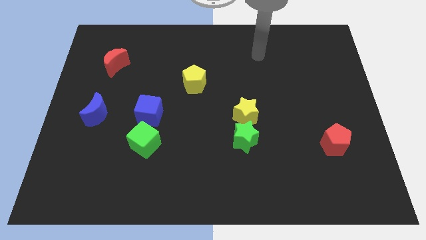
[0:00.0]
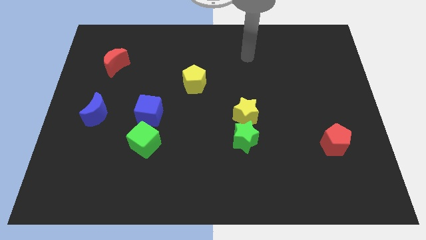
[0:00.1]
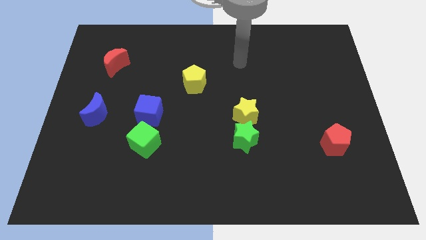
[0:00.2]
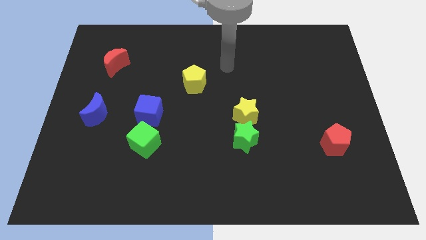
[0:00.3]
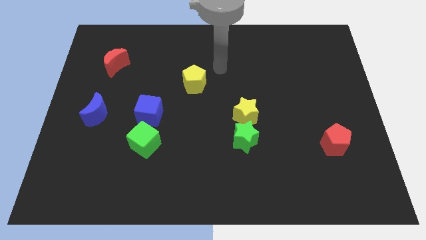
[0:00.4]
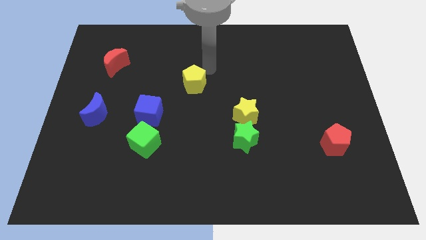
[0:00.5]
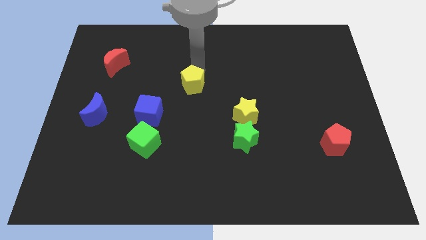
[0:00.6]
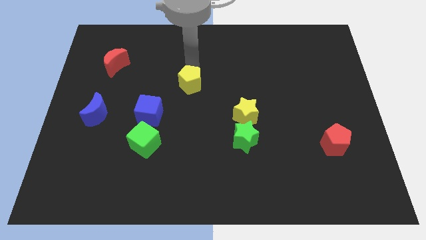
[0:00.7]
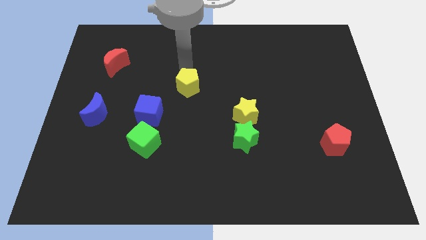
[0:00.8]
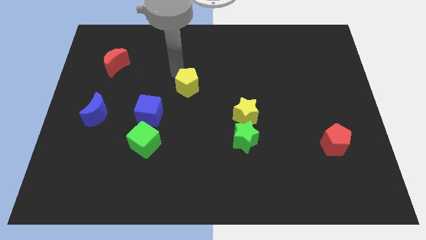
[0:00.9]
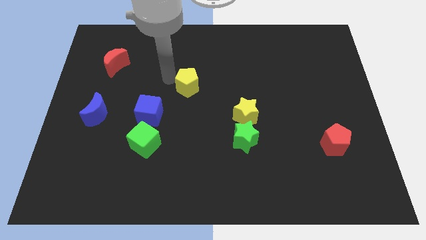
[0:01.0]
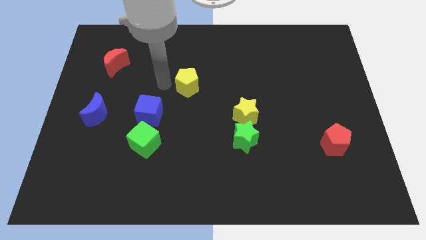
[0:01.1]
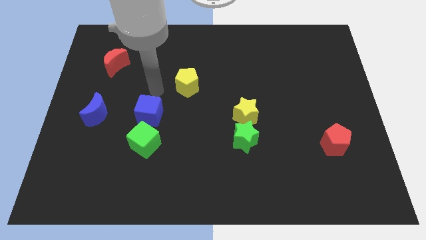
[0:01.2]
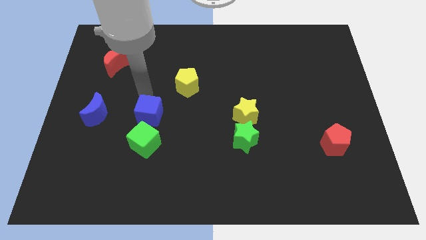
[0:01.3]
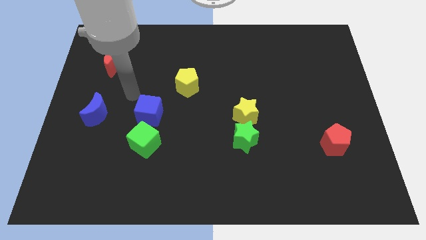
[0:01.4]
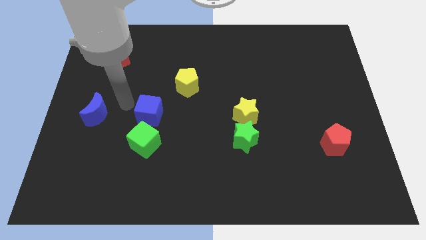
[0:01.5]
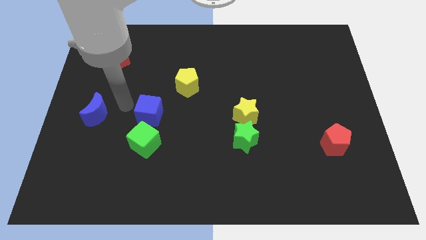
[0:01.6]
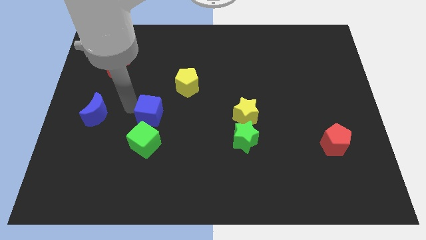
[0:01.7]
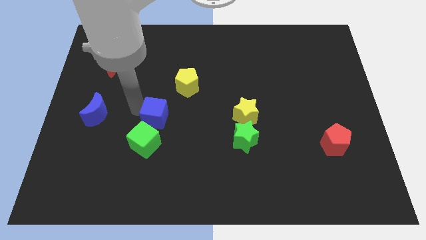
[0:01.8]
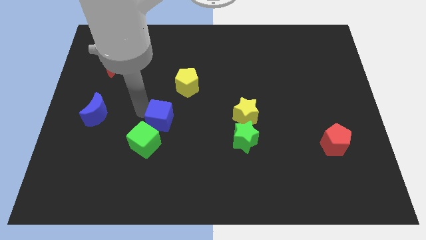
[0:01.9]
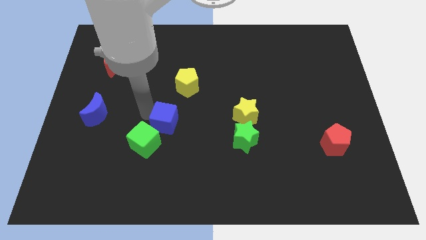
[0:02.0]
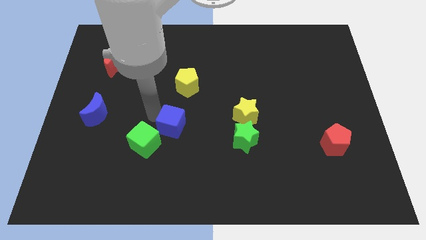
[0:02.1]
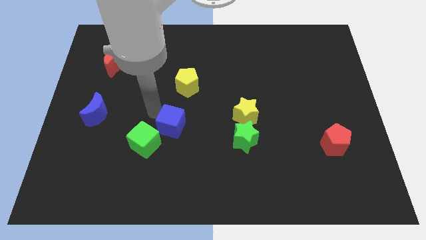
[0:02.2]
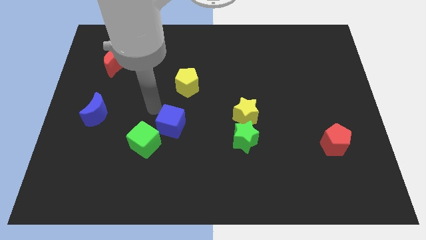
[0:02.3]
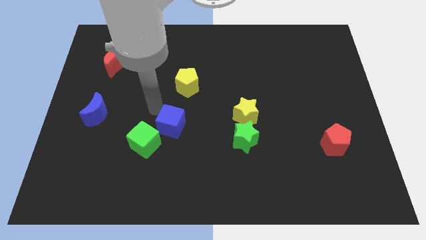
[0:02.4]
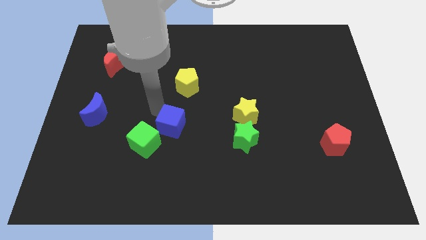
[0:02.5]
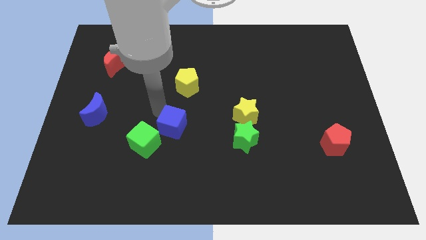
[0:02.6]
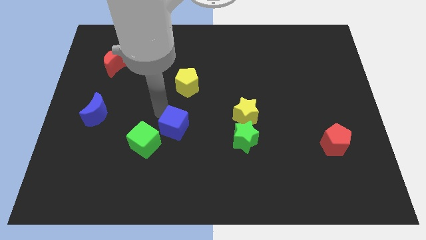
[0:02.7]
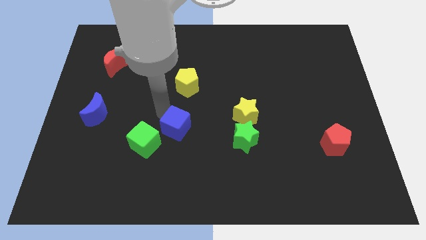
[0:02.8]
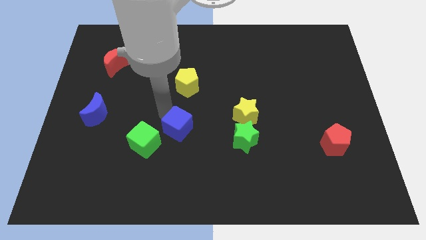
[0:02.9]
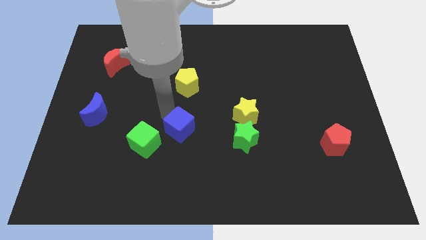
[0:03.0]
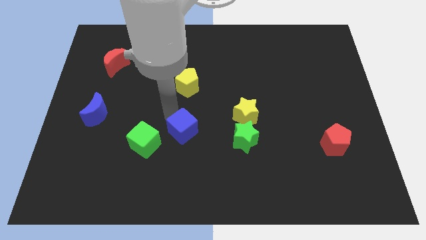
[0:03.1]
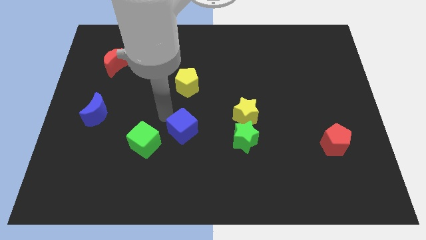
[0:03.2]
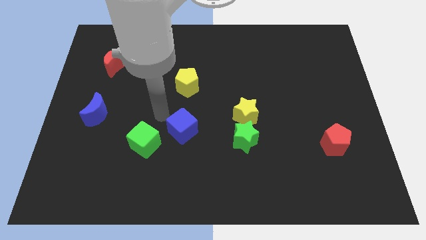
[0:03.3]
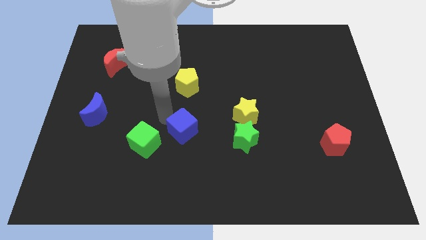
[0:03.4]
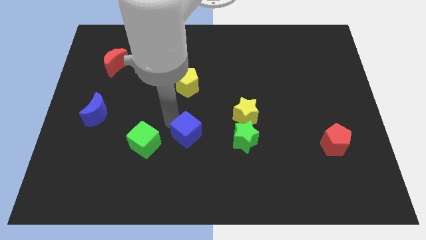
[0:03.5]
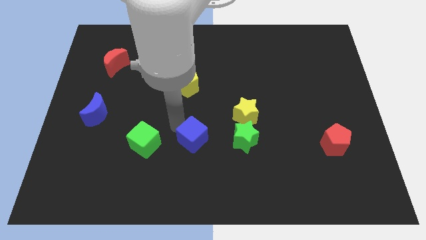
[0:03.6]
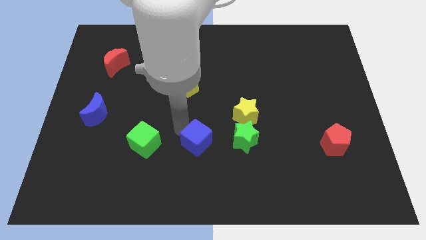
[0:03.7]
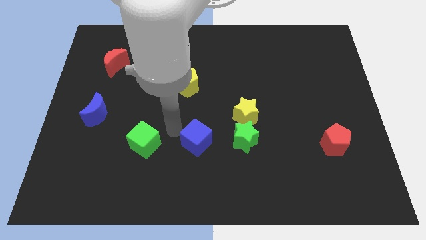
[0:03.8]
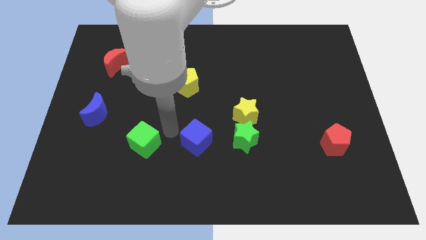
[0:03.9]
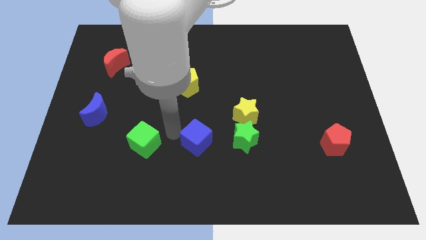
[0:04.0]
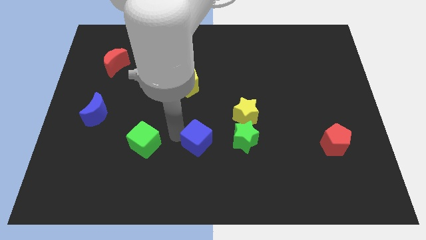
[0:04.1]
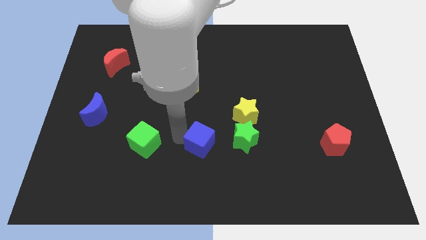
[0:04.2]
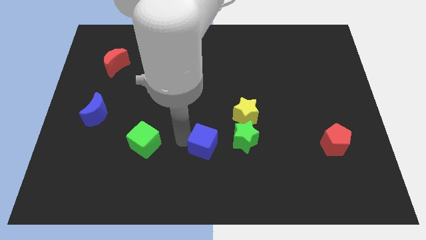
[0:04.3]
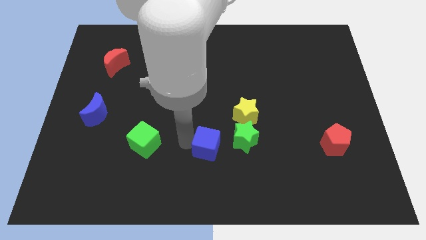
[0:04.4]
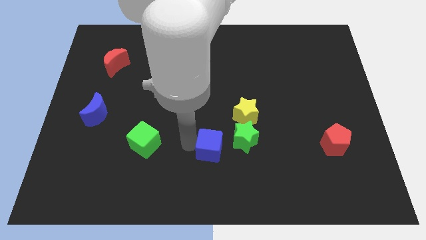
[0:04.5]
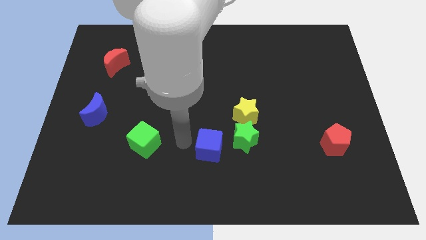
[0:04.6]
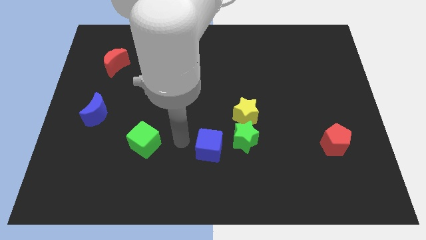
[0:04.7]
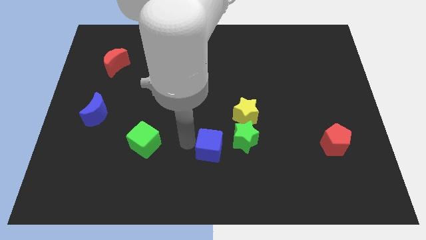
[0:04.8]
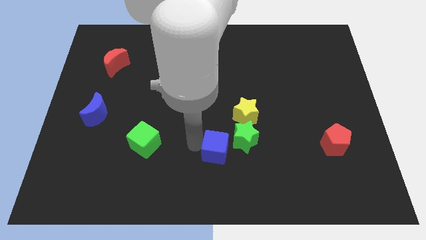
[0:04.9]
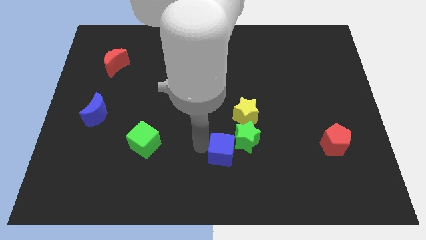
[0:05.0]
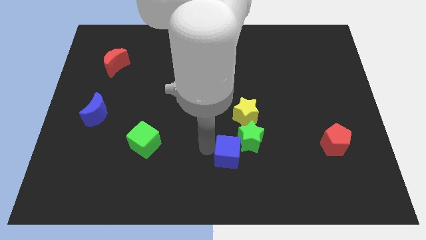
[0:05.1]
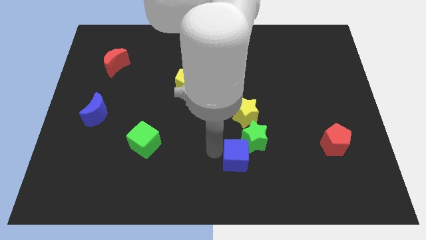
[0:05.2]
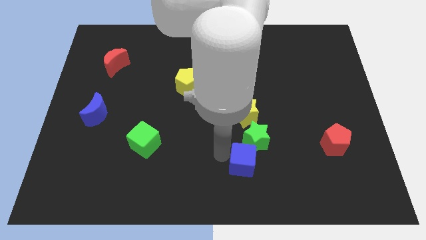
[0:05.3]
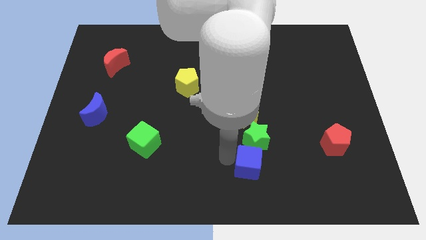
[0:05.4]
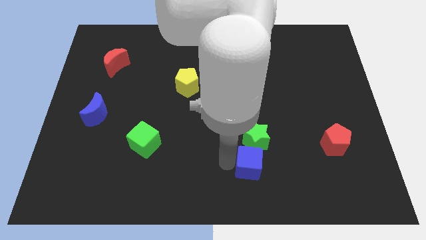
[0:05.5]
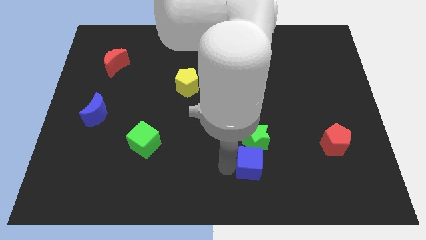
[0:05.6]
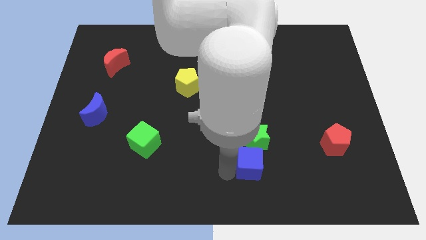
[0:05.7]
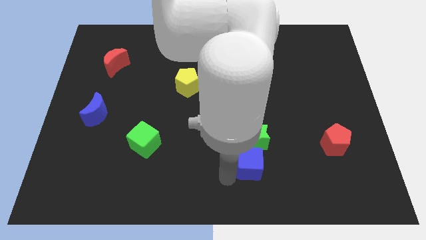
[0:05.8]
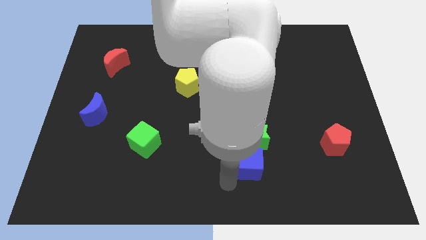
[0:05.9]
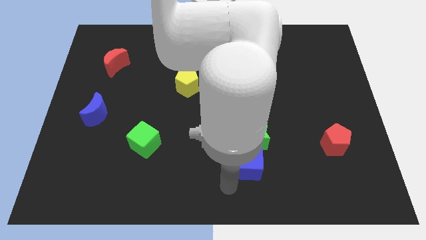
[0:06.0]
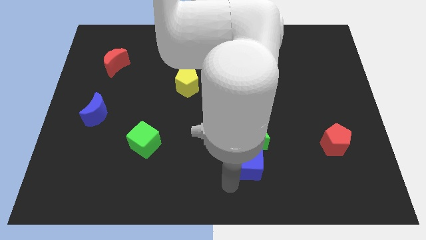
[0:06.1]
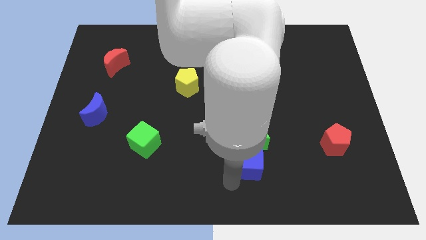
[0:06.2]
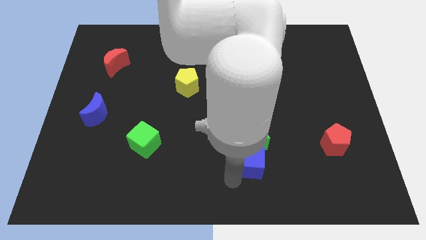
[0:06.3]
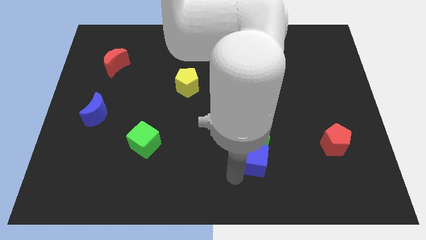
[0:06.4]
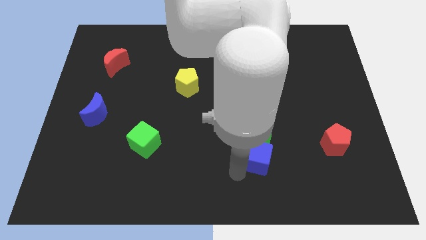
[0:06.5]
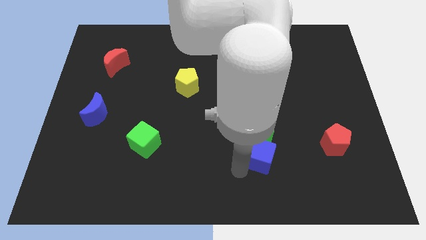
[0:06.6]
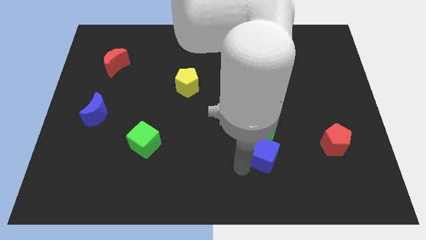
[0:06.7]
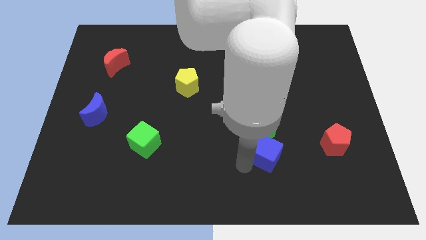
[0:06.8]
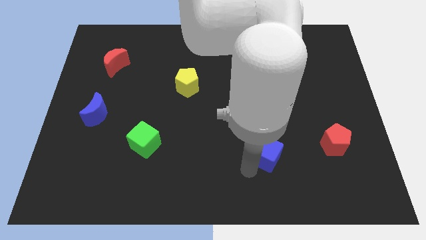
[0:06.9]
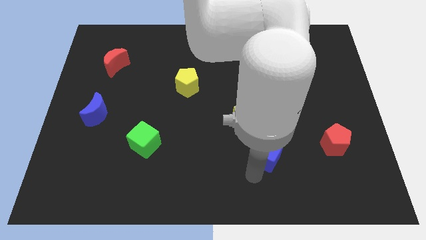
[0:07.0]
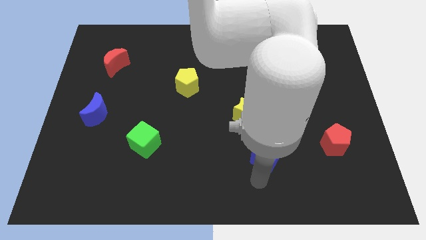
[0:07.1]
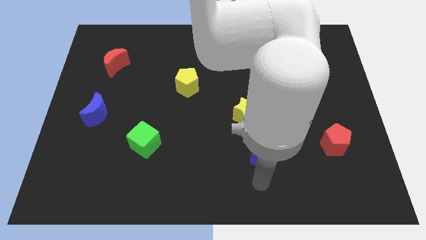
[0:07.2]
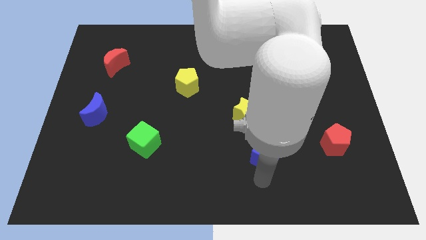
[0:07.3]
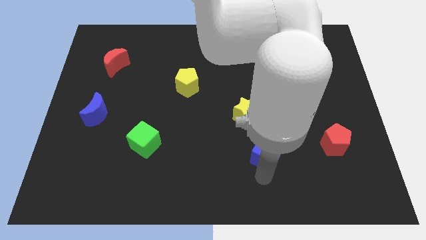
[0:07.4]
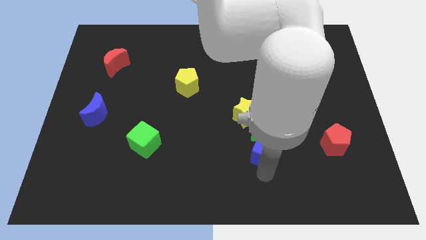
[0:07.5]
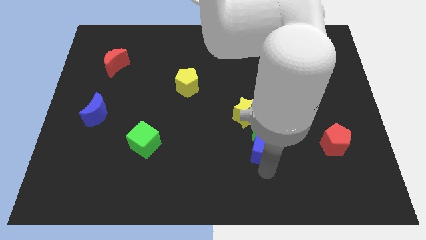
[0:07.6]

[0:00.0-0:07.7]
put the blue cube diagonally down and to the right of the yellow star
